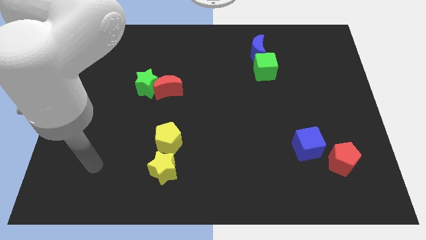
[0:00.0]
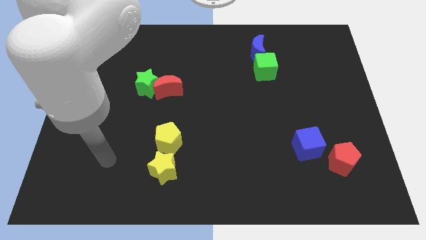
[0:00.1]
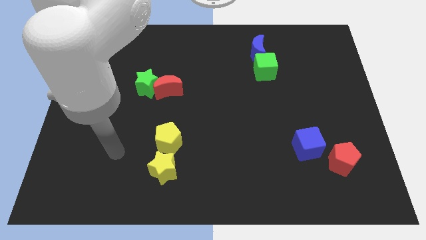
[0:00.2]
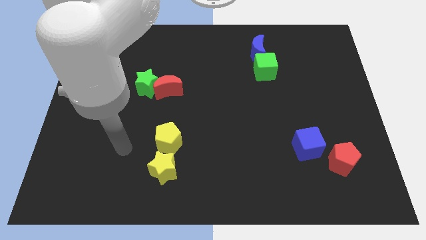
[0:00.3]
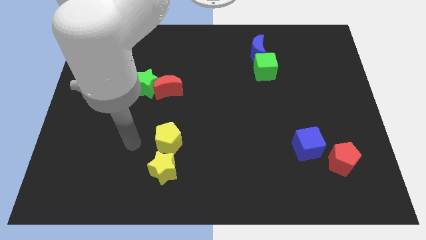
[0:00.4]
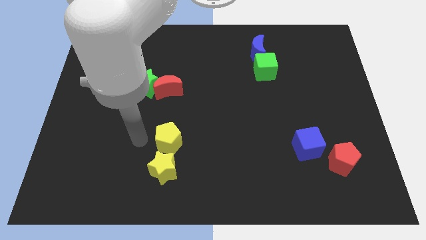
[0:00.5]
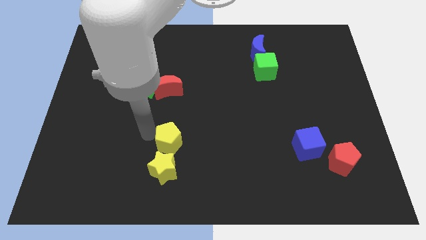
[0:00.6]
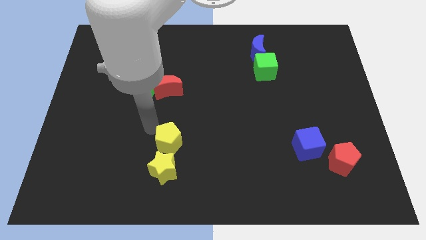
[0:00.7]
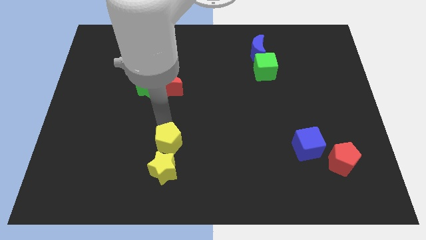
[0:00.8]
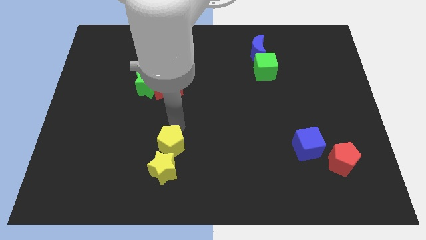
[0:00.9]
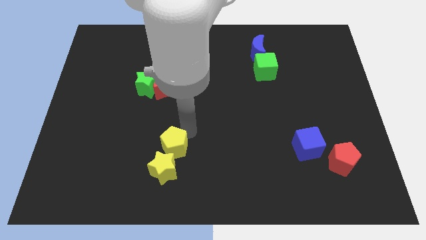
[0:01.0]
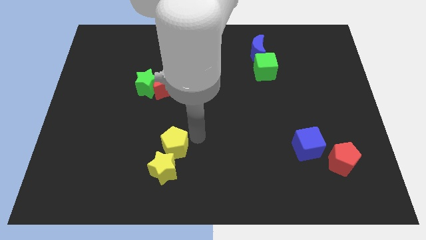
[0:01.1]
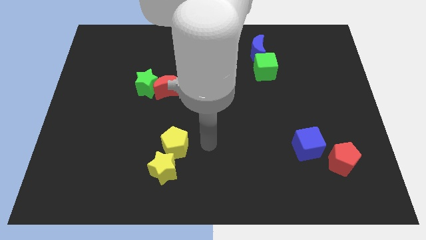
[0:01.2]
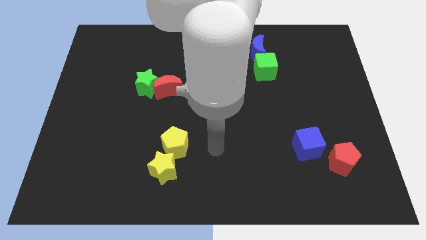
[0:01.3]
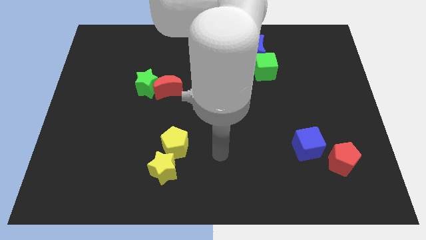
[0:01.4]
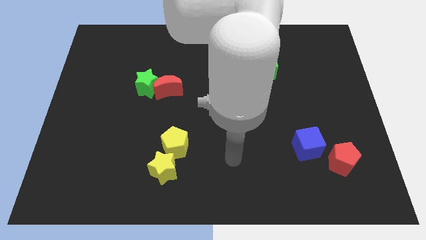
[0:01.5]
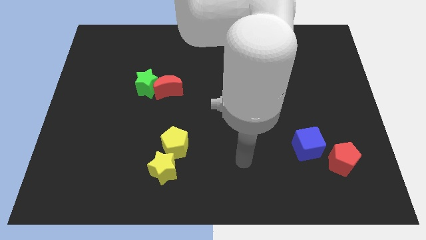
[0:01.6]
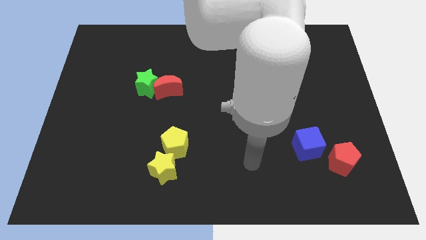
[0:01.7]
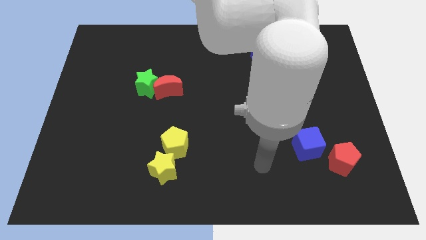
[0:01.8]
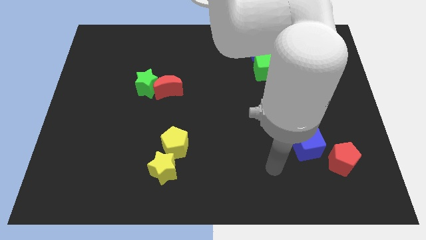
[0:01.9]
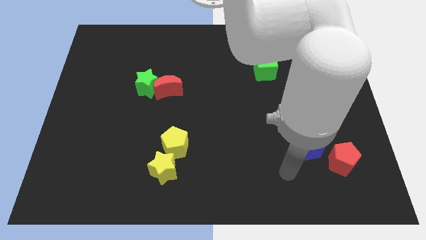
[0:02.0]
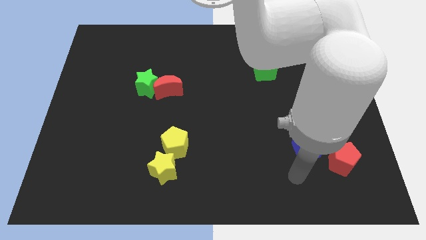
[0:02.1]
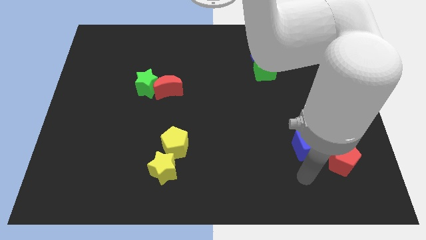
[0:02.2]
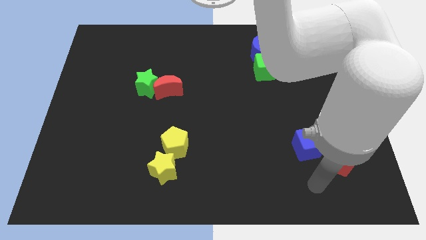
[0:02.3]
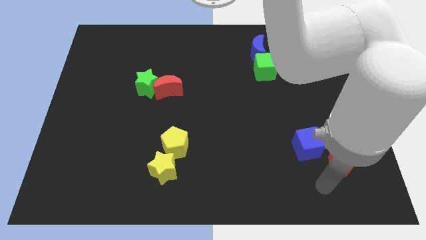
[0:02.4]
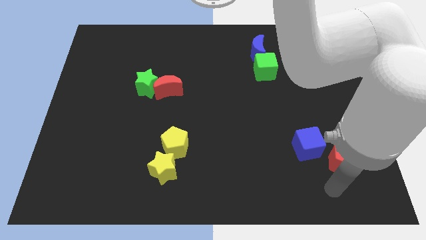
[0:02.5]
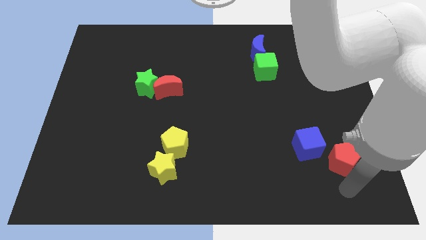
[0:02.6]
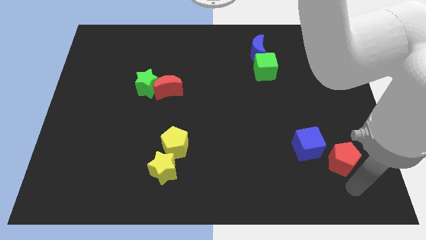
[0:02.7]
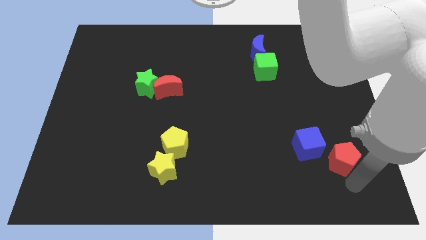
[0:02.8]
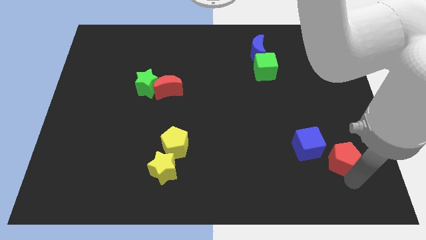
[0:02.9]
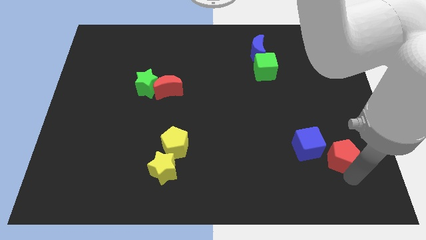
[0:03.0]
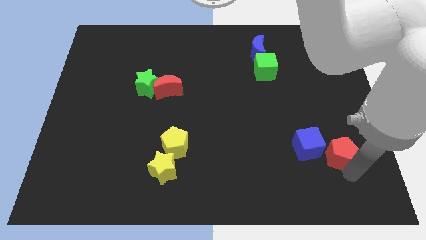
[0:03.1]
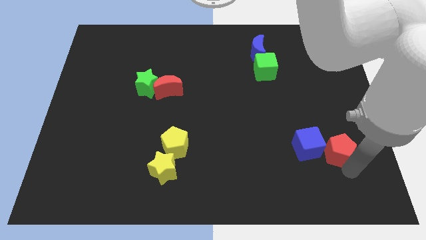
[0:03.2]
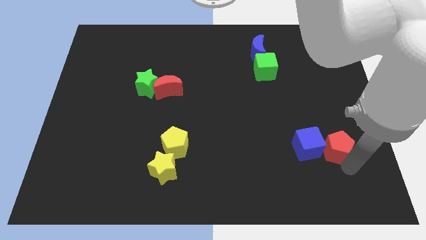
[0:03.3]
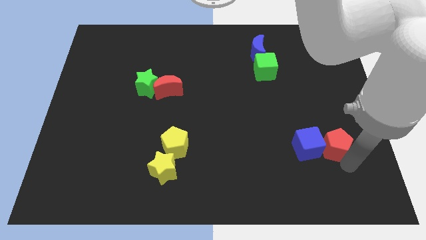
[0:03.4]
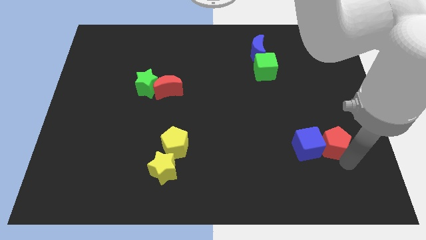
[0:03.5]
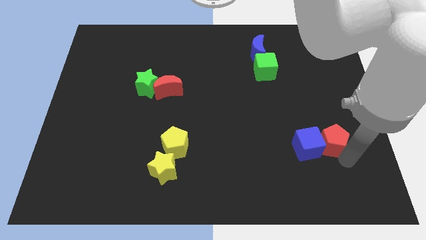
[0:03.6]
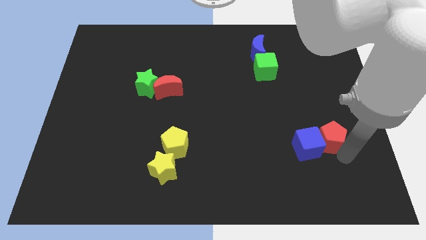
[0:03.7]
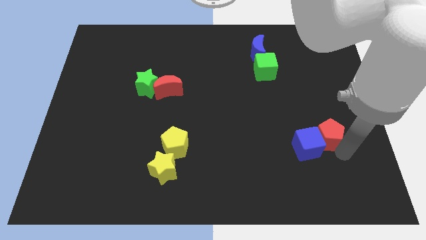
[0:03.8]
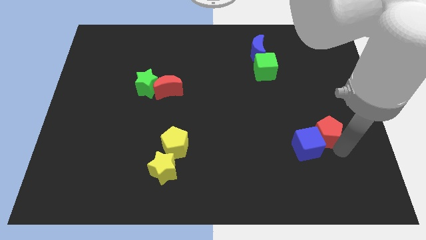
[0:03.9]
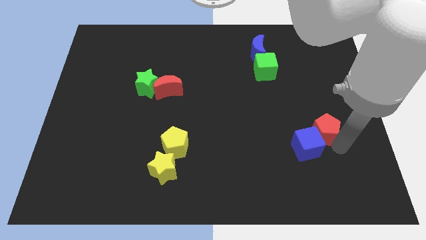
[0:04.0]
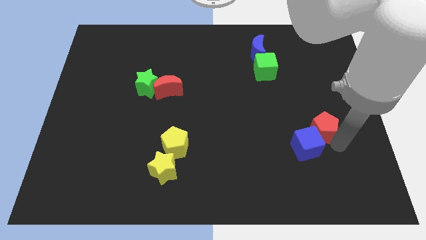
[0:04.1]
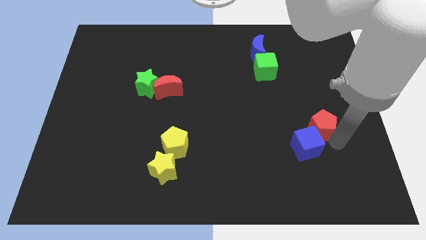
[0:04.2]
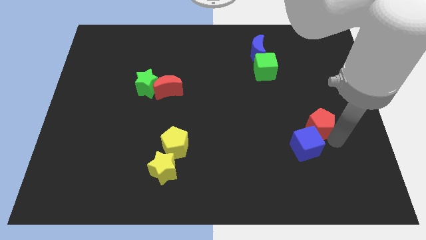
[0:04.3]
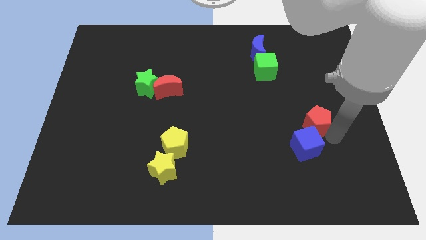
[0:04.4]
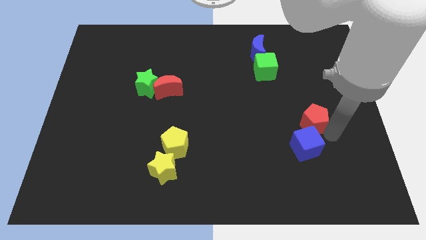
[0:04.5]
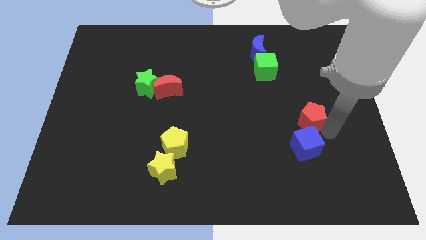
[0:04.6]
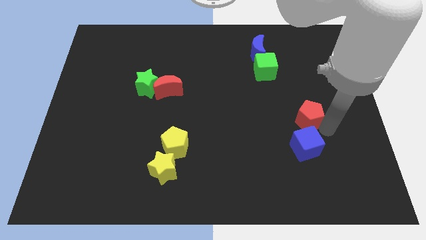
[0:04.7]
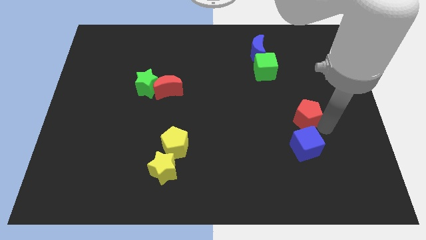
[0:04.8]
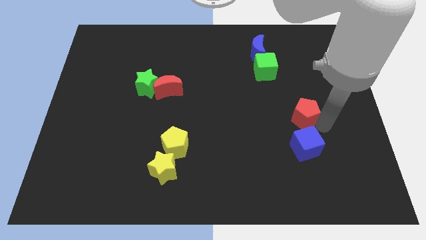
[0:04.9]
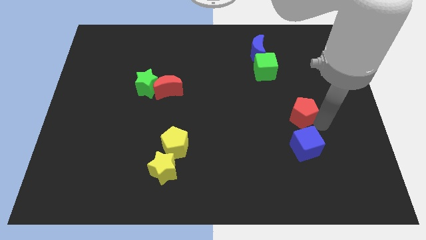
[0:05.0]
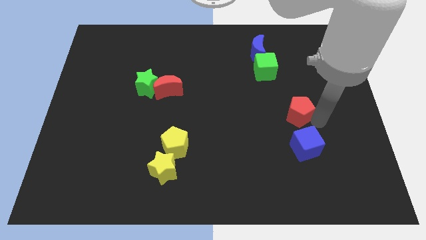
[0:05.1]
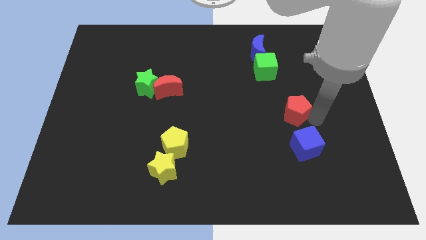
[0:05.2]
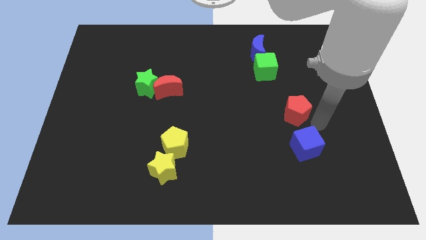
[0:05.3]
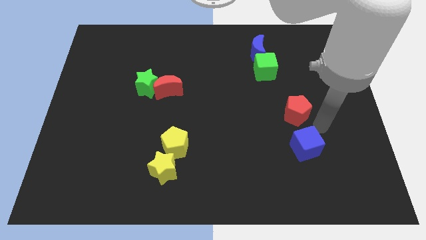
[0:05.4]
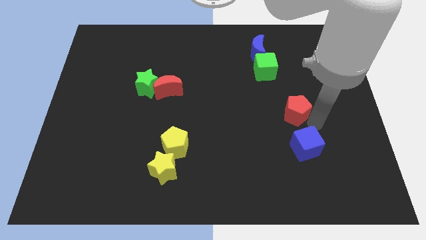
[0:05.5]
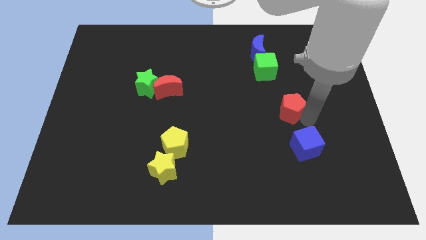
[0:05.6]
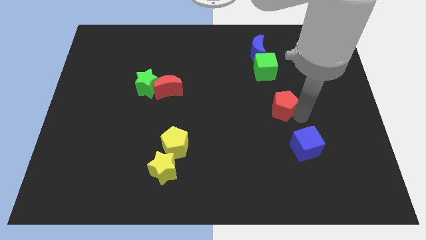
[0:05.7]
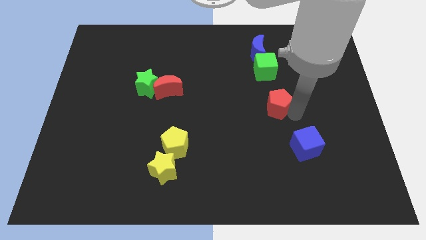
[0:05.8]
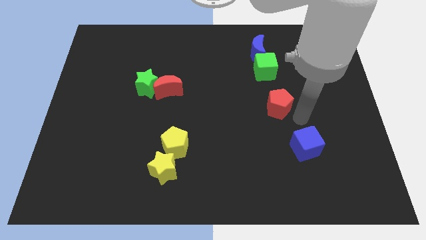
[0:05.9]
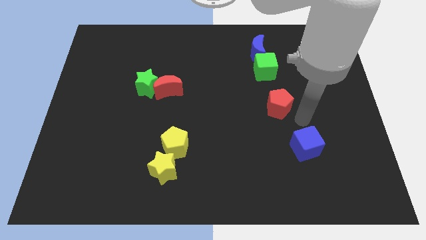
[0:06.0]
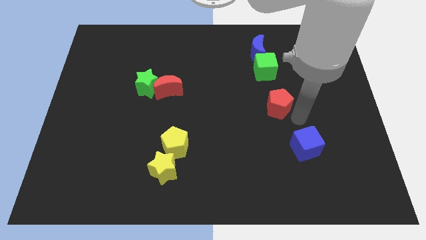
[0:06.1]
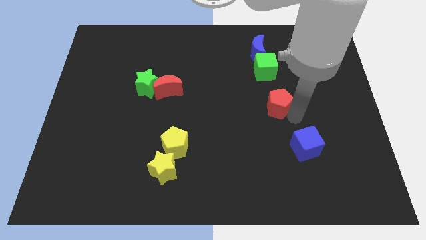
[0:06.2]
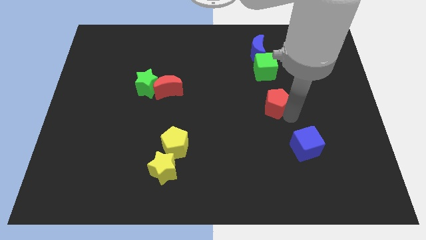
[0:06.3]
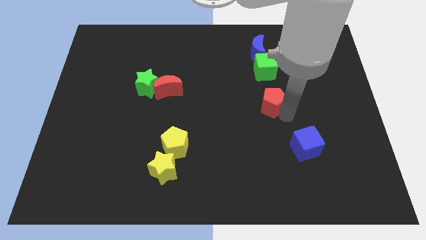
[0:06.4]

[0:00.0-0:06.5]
slide the red pentagon upwards and to the left diagonally

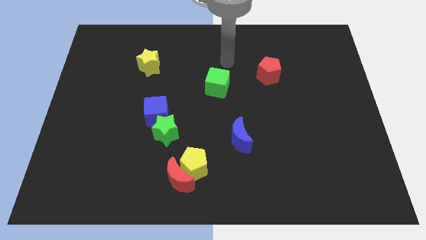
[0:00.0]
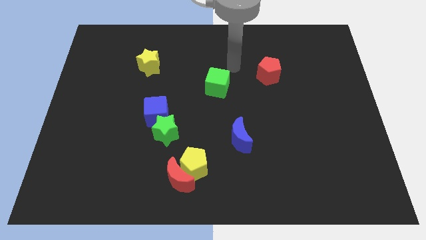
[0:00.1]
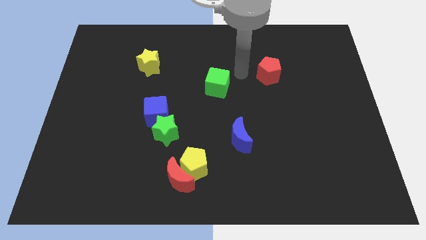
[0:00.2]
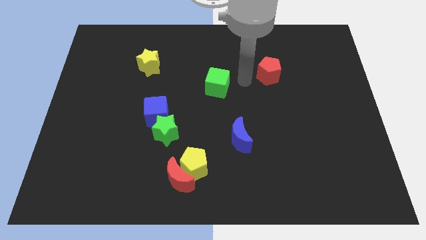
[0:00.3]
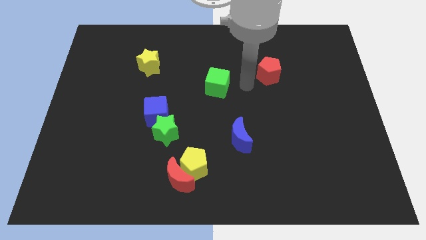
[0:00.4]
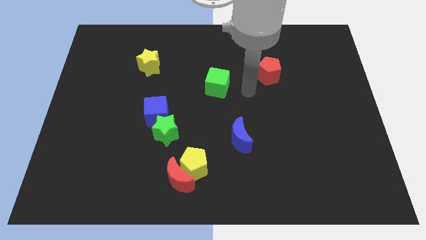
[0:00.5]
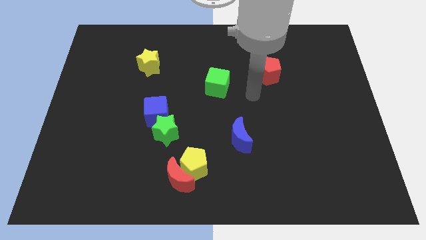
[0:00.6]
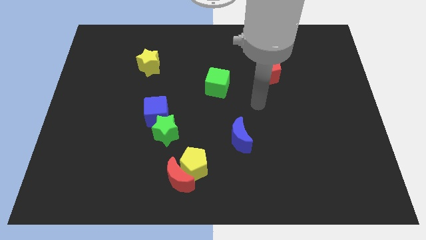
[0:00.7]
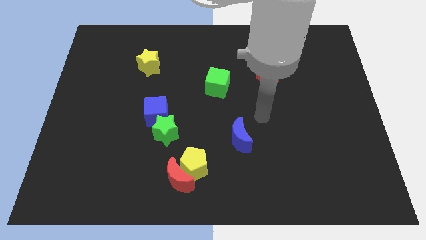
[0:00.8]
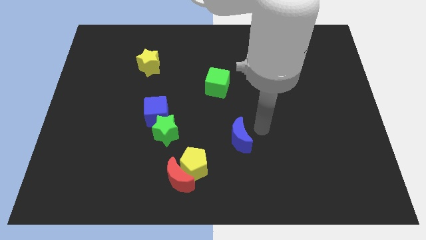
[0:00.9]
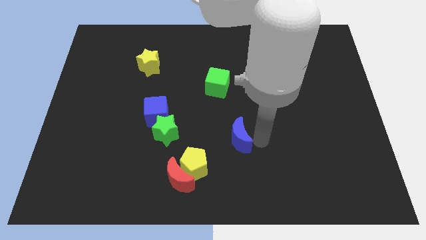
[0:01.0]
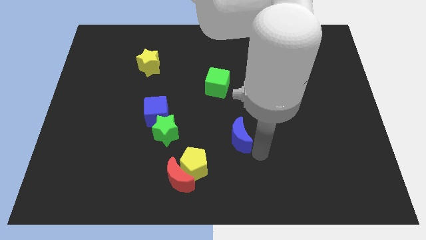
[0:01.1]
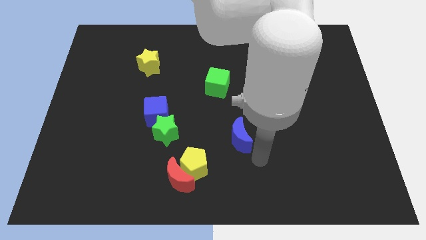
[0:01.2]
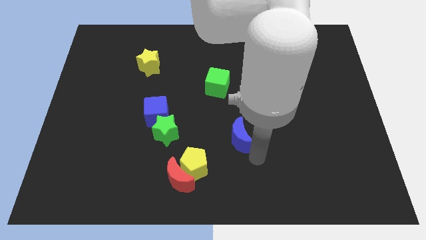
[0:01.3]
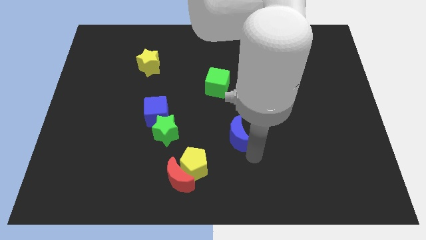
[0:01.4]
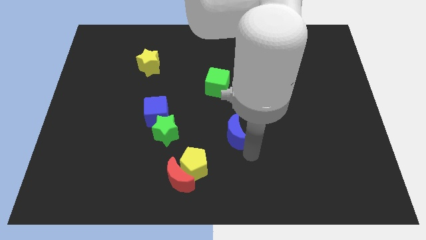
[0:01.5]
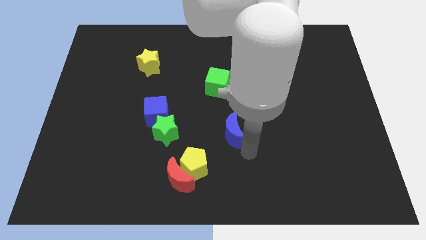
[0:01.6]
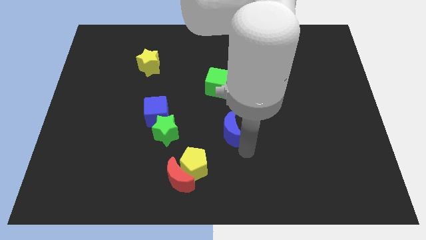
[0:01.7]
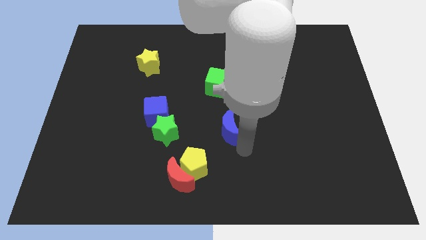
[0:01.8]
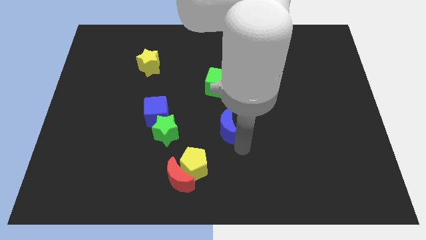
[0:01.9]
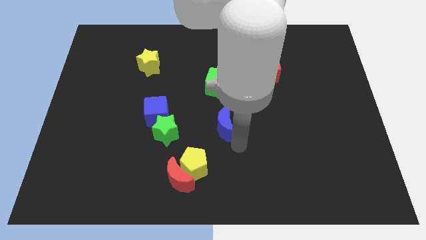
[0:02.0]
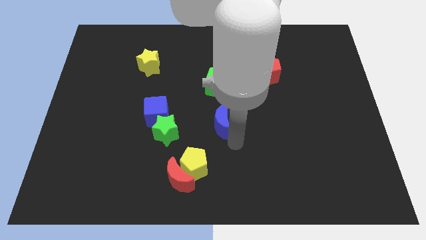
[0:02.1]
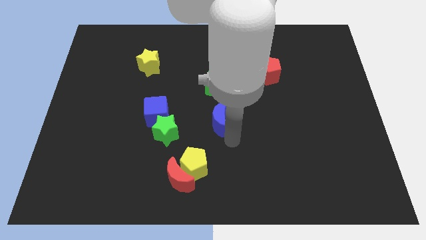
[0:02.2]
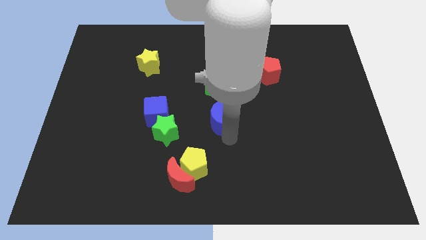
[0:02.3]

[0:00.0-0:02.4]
slide the blue moon a little bit up and then to the left
